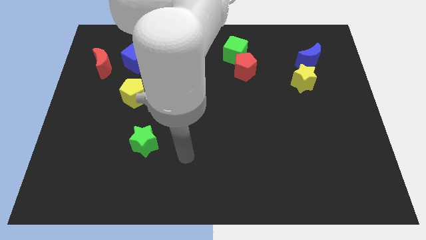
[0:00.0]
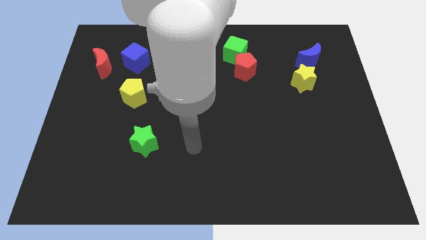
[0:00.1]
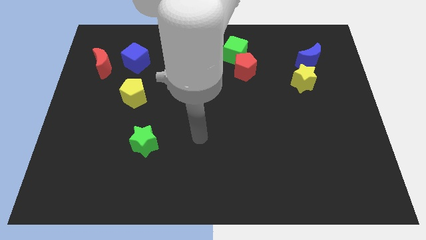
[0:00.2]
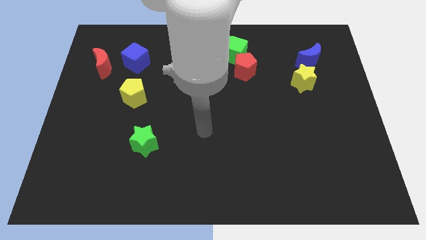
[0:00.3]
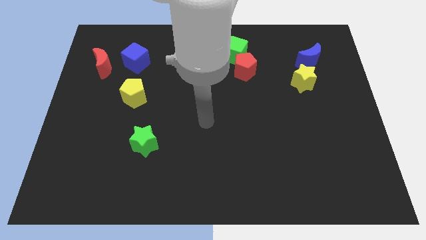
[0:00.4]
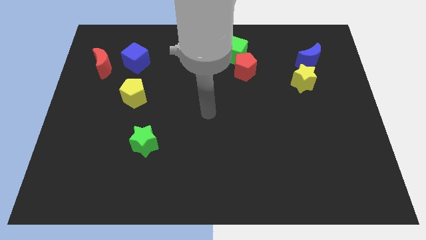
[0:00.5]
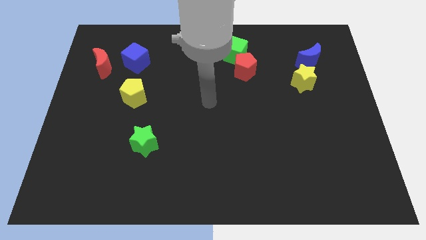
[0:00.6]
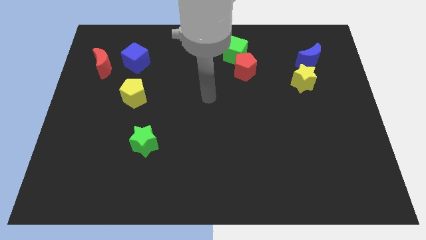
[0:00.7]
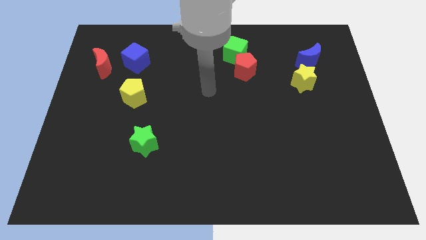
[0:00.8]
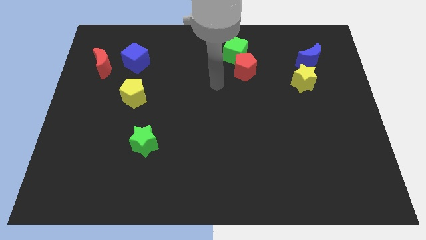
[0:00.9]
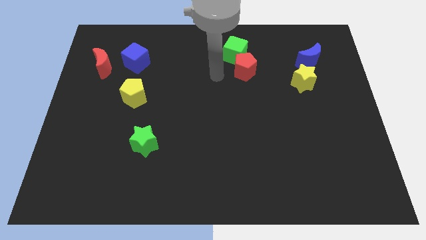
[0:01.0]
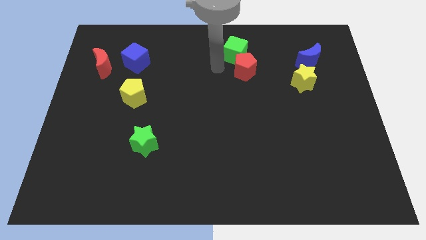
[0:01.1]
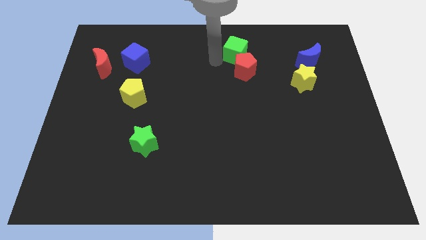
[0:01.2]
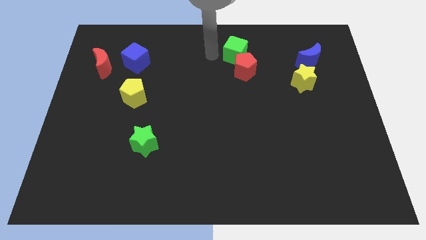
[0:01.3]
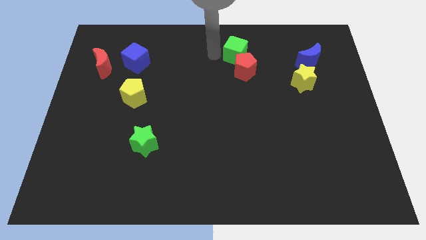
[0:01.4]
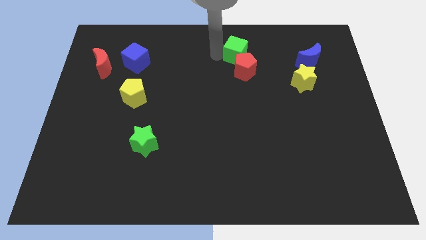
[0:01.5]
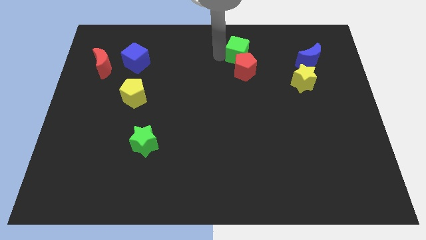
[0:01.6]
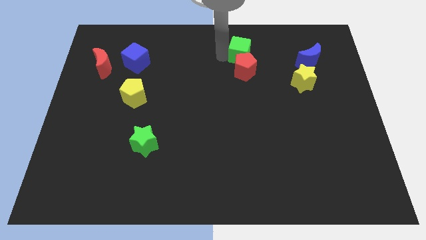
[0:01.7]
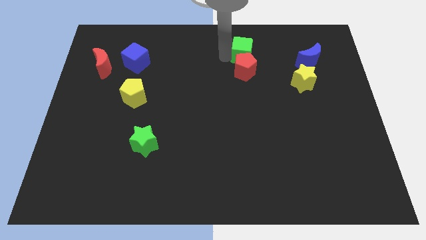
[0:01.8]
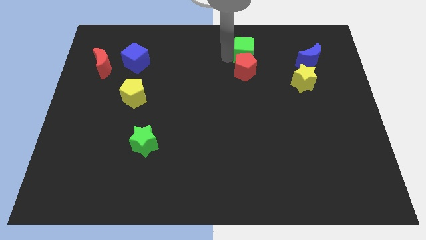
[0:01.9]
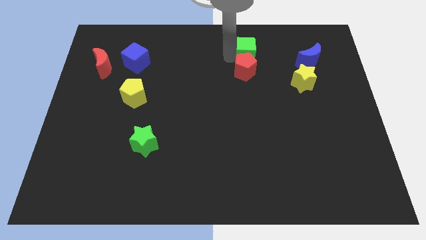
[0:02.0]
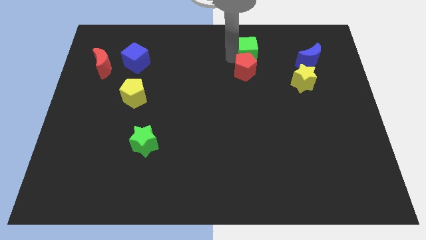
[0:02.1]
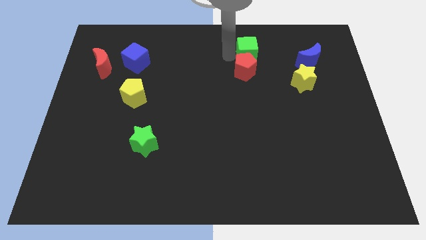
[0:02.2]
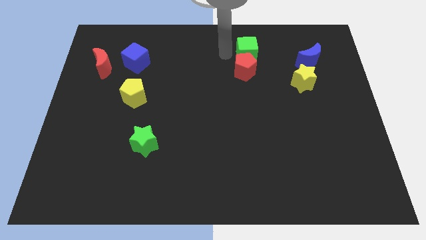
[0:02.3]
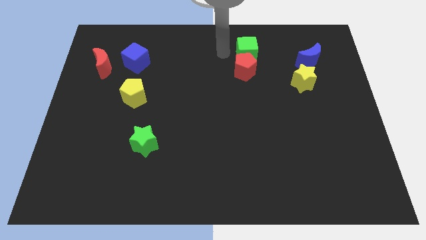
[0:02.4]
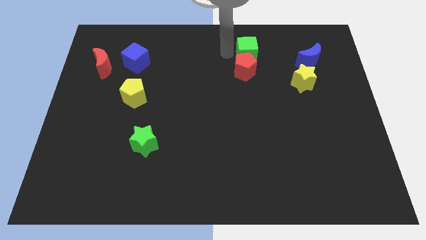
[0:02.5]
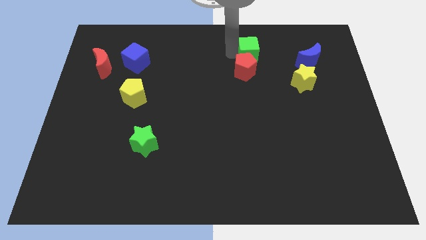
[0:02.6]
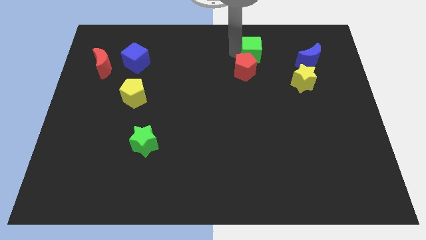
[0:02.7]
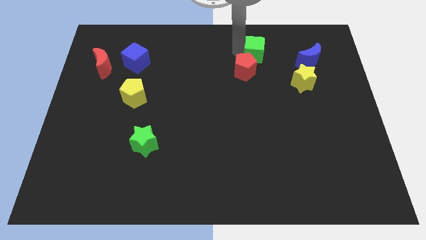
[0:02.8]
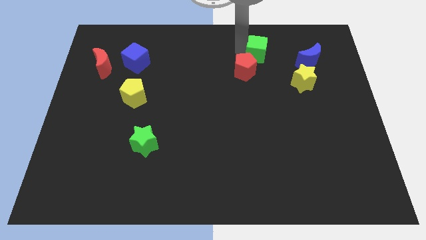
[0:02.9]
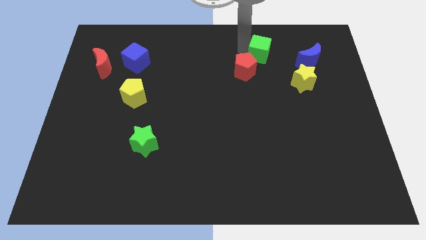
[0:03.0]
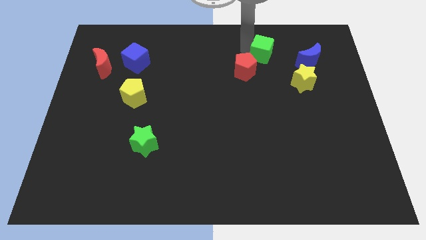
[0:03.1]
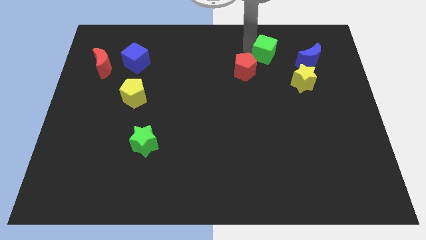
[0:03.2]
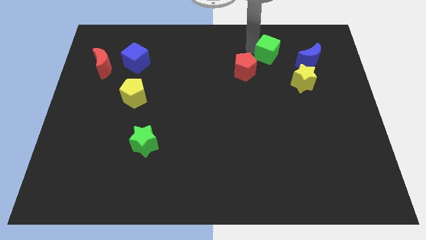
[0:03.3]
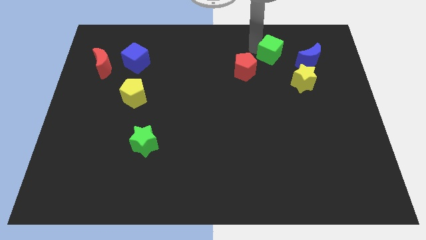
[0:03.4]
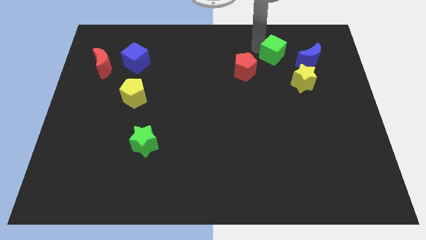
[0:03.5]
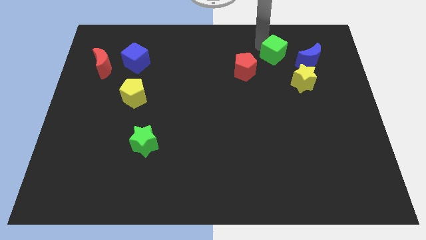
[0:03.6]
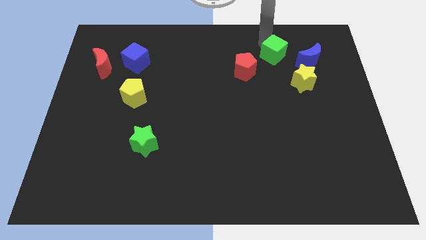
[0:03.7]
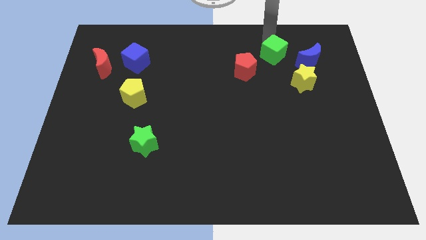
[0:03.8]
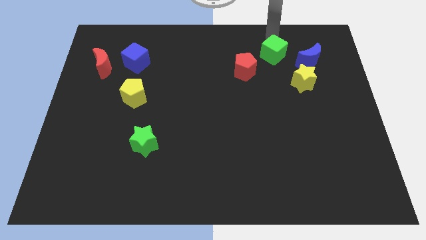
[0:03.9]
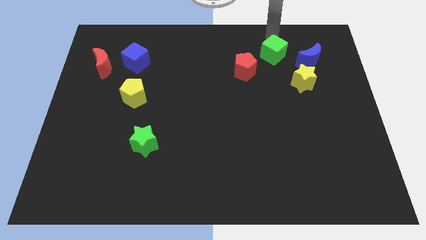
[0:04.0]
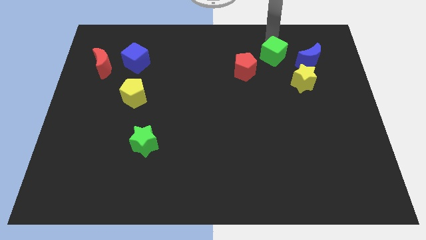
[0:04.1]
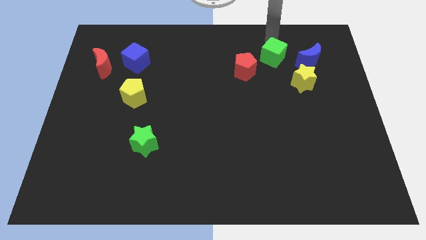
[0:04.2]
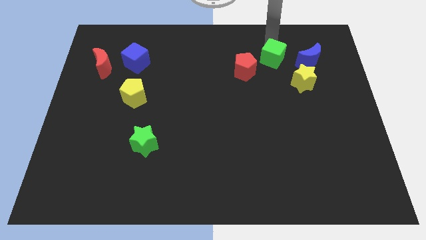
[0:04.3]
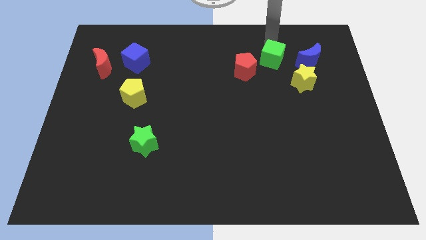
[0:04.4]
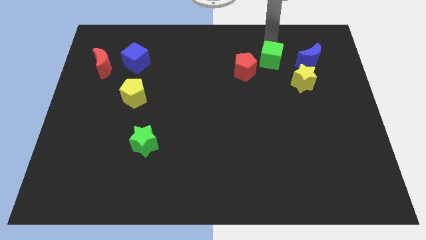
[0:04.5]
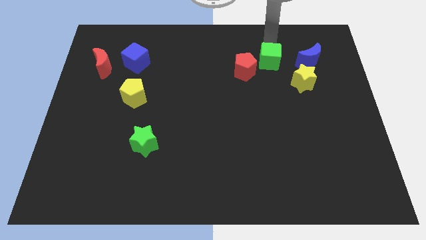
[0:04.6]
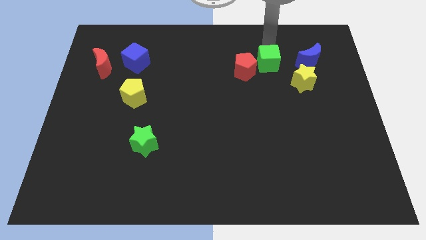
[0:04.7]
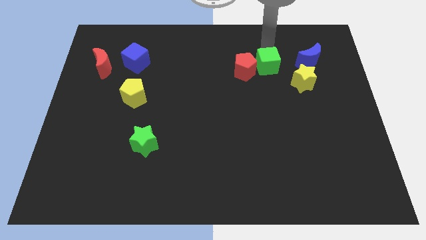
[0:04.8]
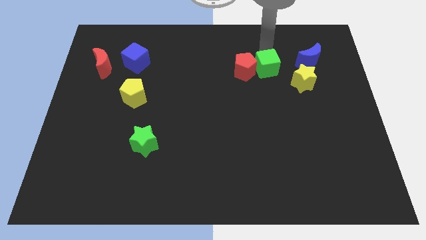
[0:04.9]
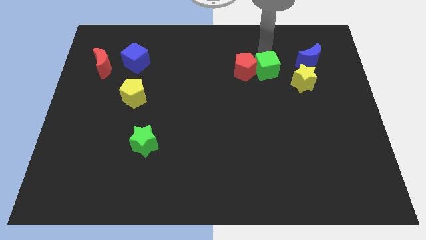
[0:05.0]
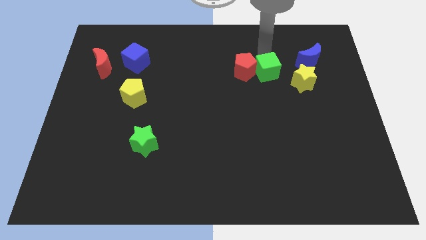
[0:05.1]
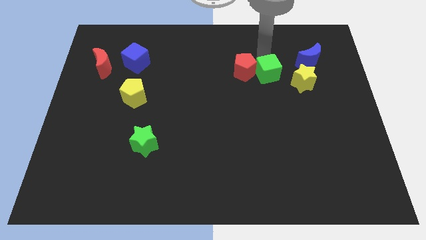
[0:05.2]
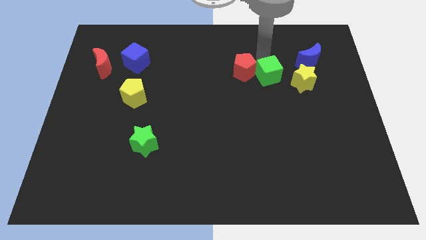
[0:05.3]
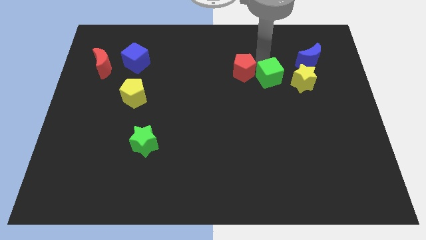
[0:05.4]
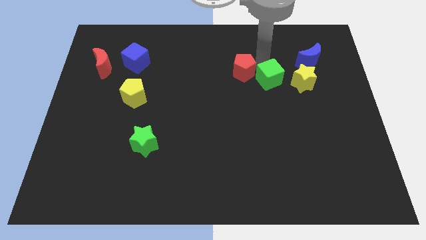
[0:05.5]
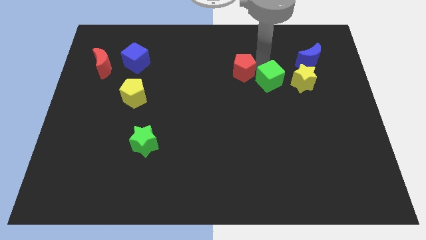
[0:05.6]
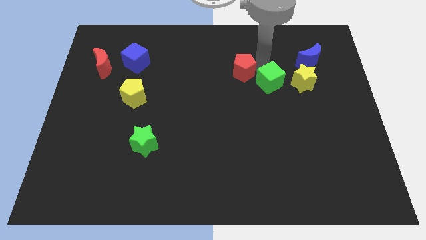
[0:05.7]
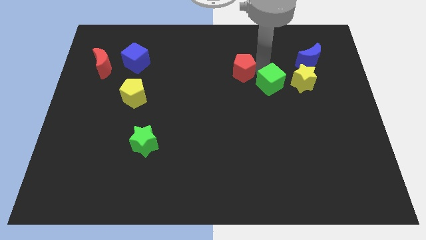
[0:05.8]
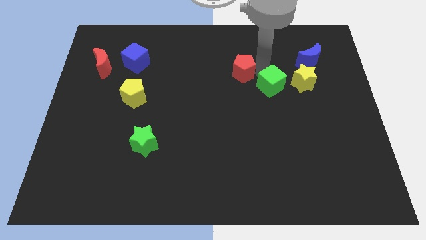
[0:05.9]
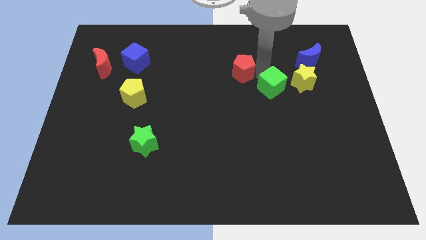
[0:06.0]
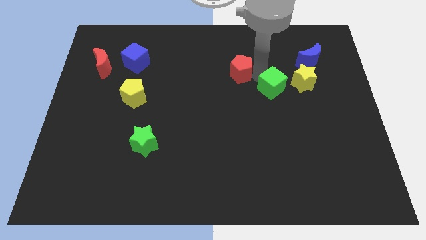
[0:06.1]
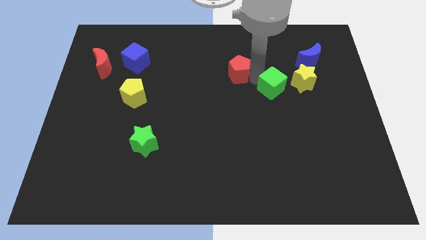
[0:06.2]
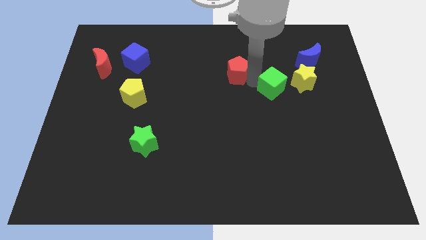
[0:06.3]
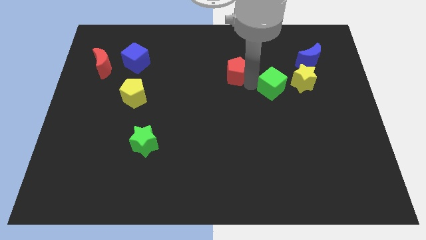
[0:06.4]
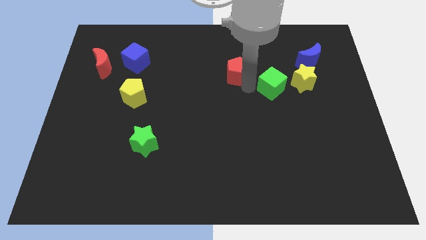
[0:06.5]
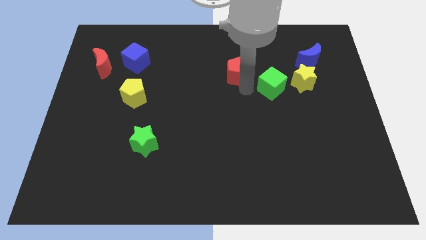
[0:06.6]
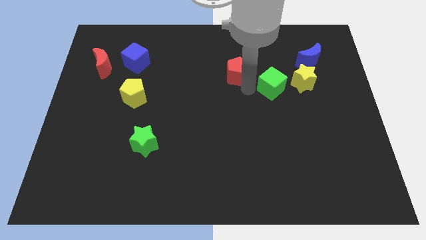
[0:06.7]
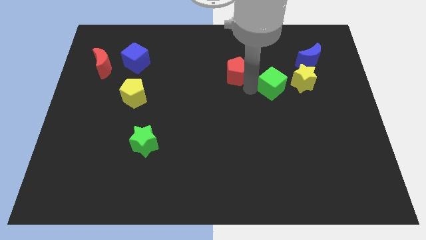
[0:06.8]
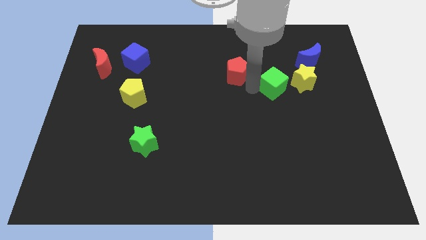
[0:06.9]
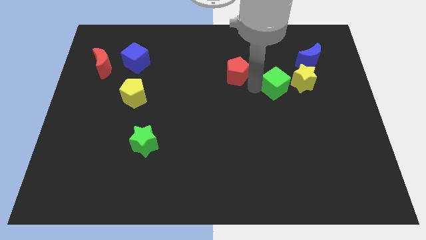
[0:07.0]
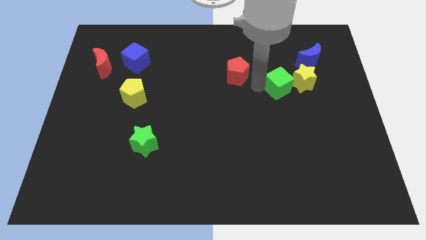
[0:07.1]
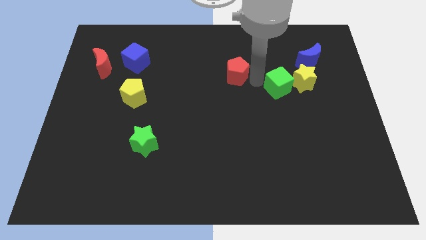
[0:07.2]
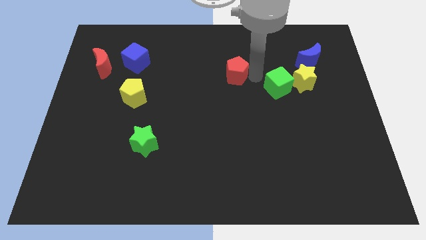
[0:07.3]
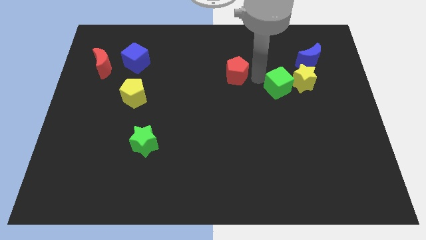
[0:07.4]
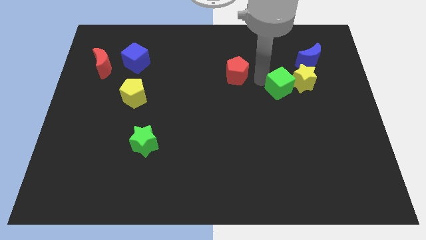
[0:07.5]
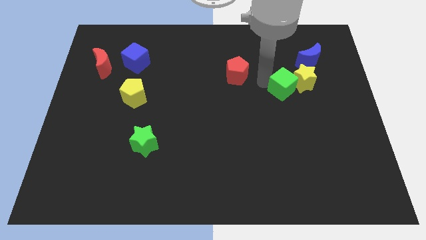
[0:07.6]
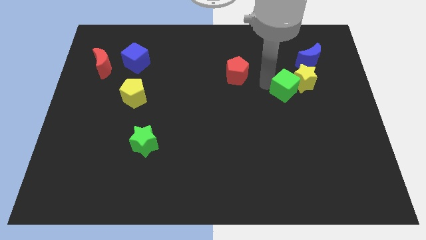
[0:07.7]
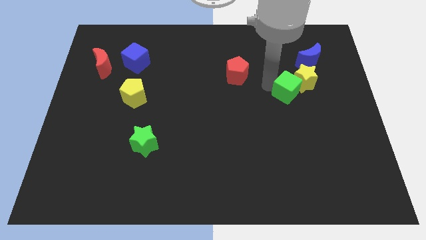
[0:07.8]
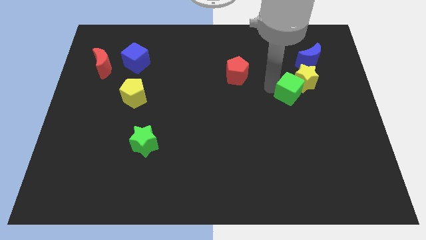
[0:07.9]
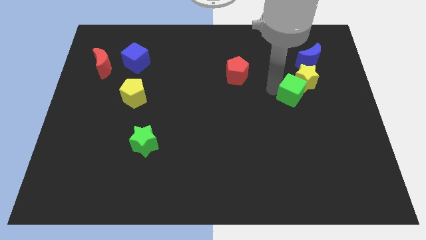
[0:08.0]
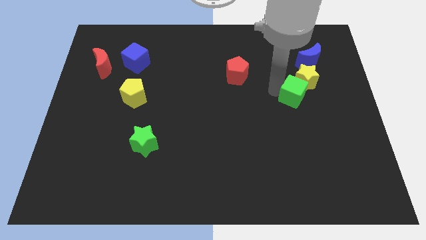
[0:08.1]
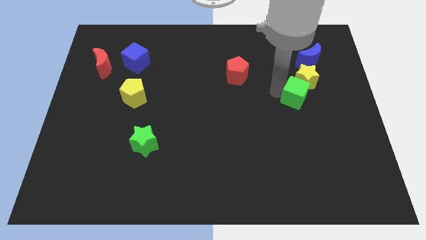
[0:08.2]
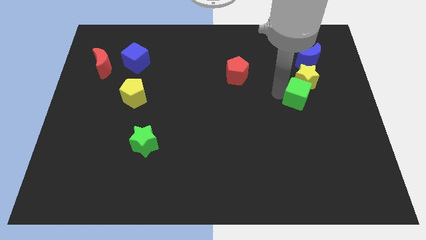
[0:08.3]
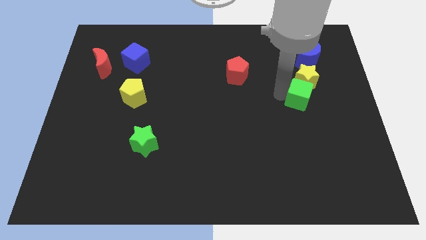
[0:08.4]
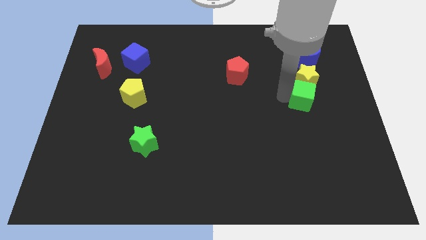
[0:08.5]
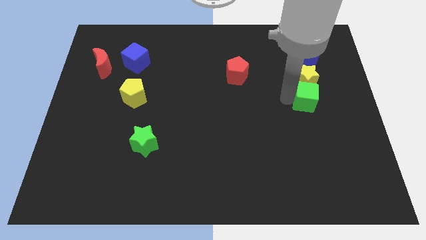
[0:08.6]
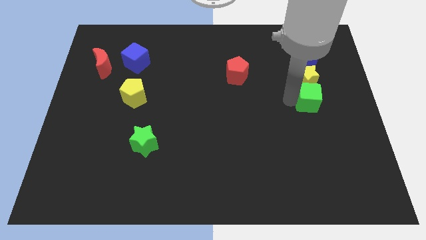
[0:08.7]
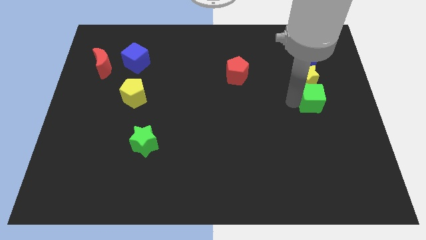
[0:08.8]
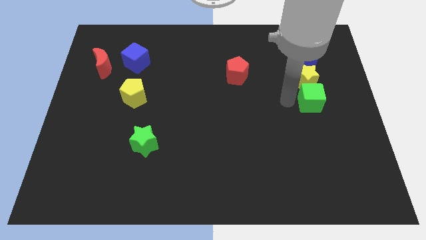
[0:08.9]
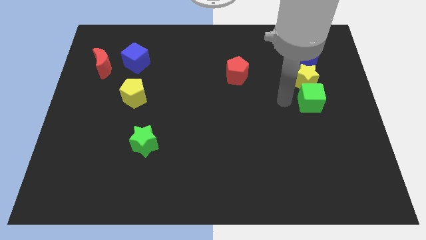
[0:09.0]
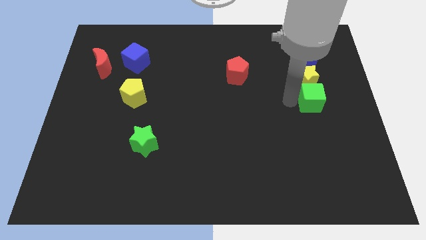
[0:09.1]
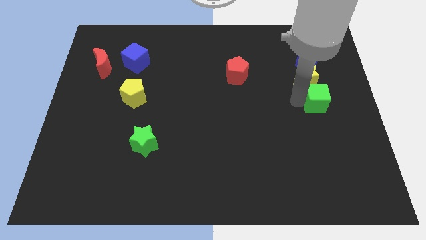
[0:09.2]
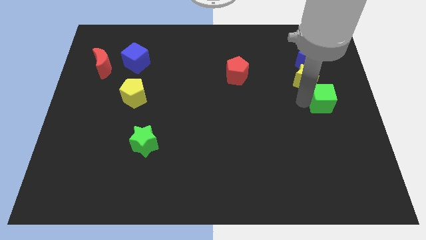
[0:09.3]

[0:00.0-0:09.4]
put the green cube to the center right
